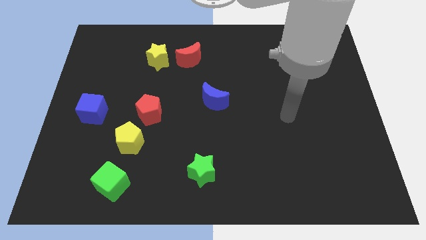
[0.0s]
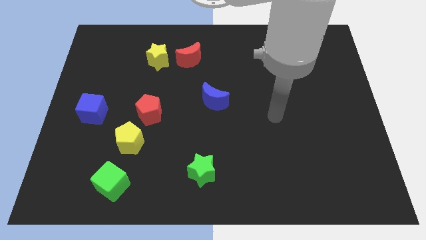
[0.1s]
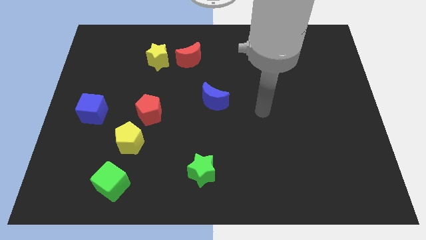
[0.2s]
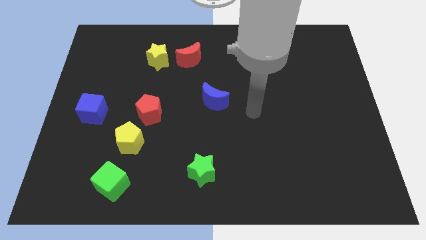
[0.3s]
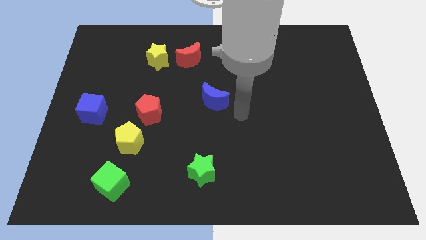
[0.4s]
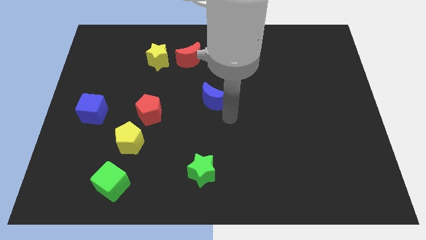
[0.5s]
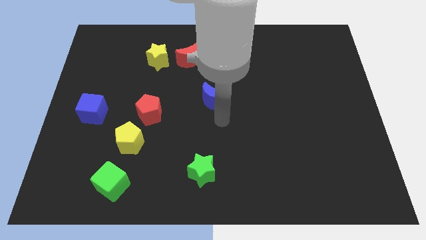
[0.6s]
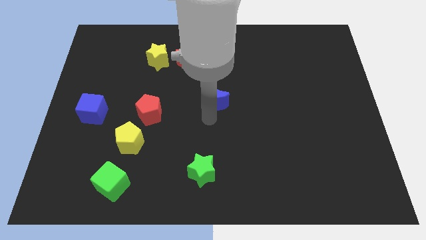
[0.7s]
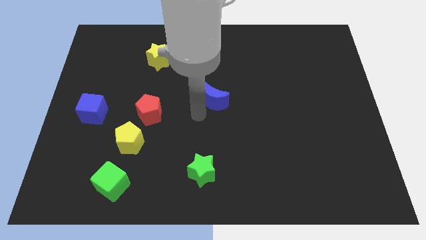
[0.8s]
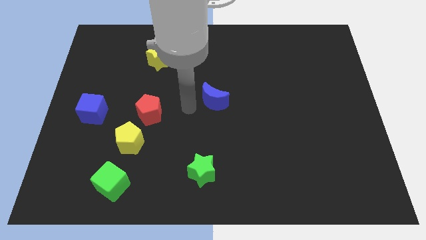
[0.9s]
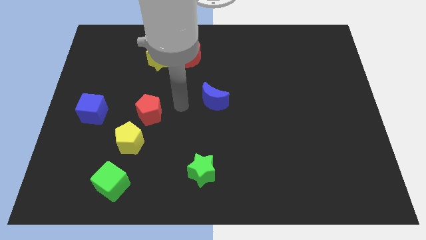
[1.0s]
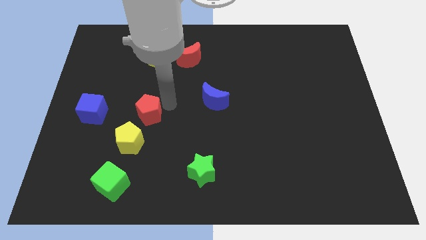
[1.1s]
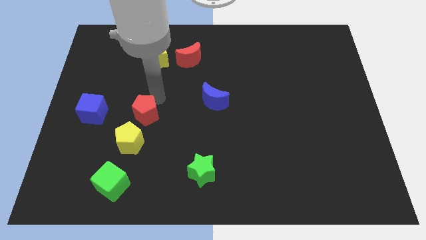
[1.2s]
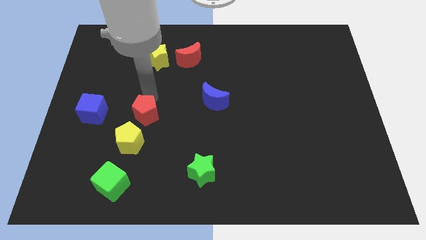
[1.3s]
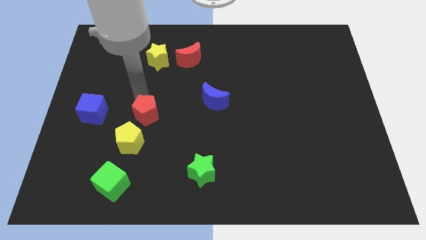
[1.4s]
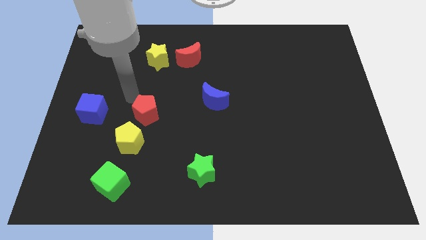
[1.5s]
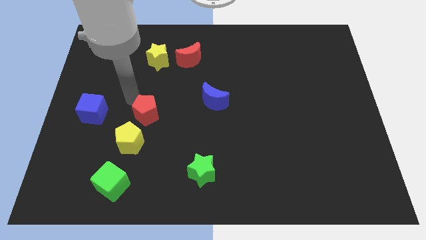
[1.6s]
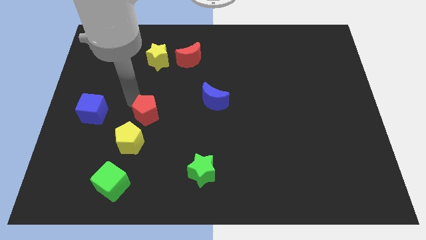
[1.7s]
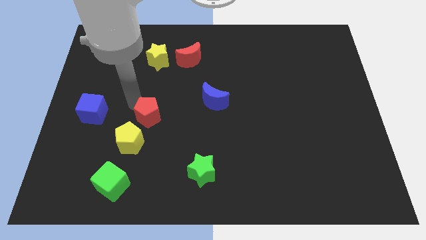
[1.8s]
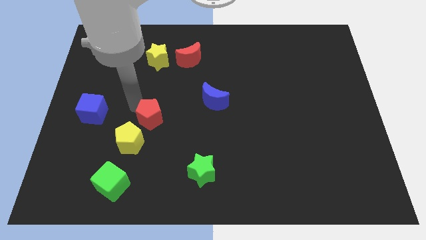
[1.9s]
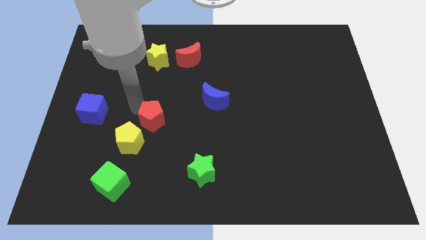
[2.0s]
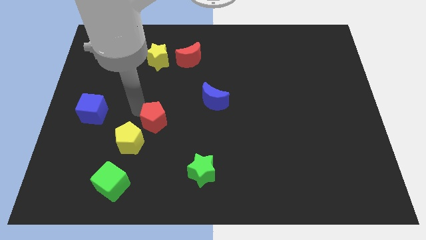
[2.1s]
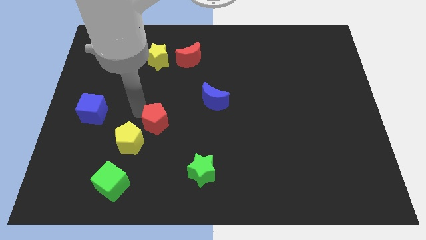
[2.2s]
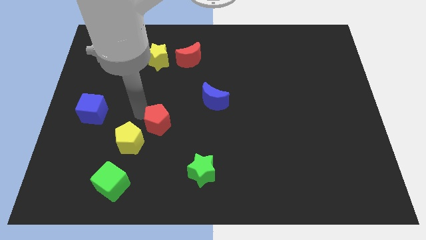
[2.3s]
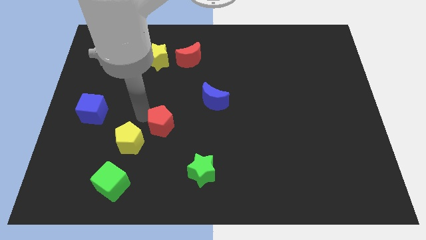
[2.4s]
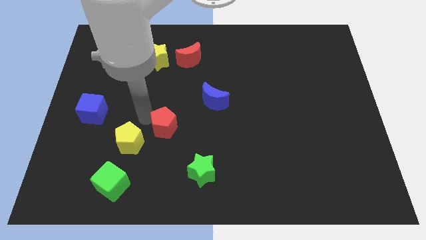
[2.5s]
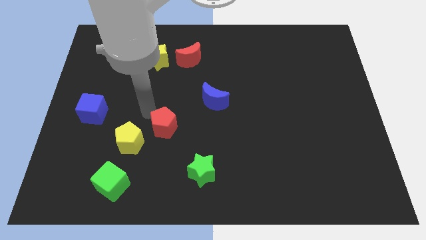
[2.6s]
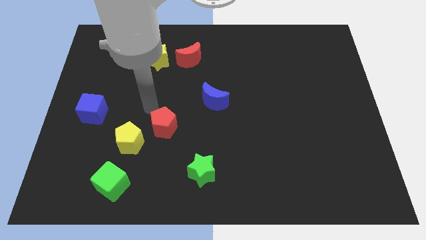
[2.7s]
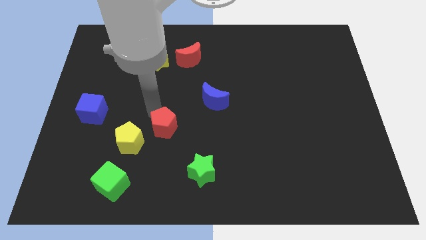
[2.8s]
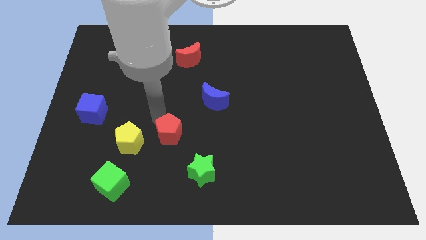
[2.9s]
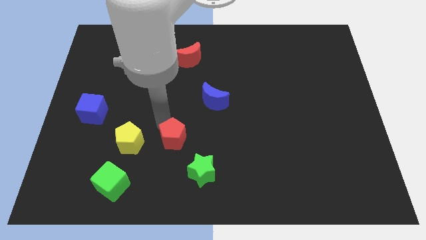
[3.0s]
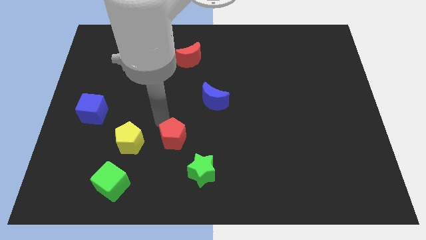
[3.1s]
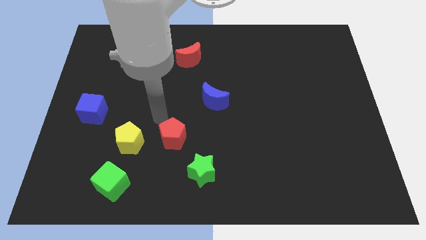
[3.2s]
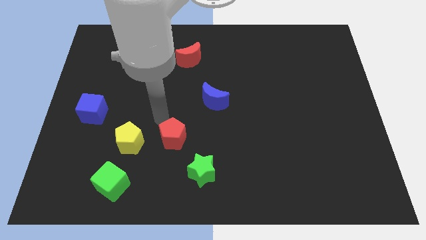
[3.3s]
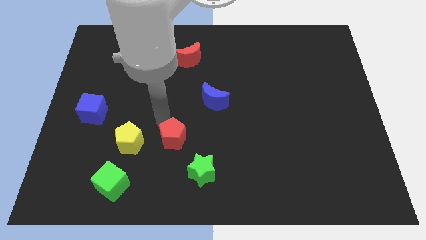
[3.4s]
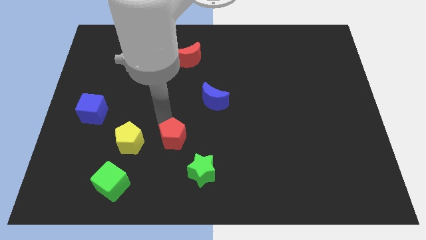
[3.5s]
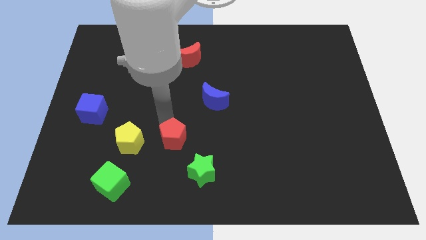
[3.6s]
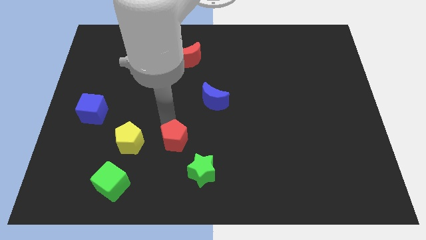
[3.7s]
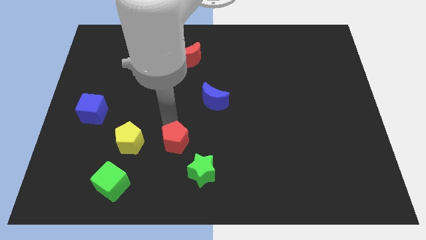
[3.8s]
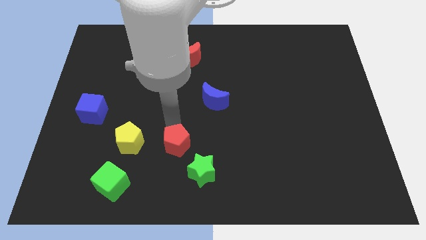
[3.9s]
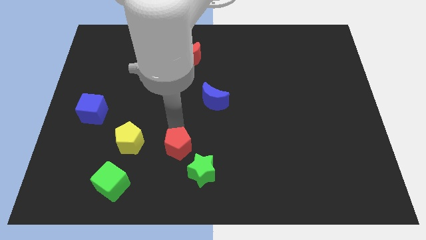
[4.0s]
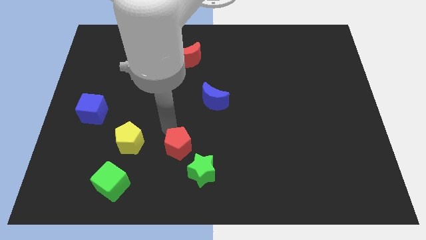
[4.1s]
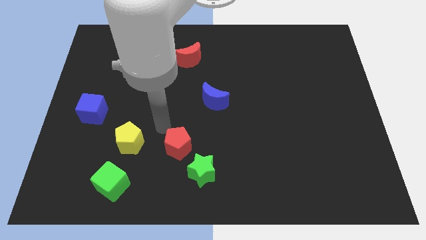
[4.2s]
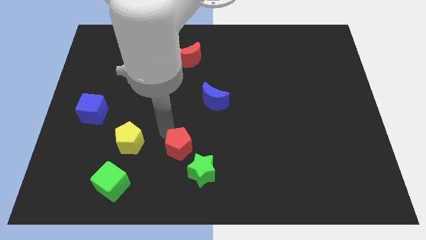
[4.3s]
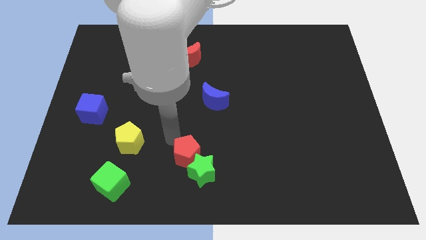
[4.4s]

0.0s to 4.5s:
slide the red pentagon next to the green star

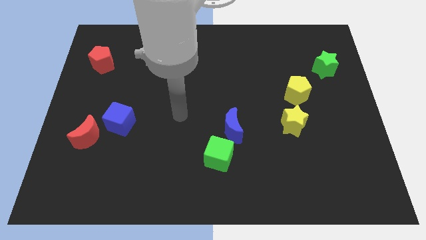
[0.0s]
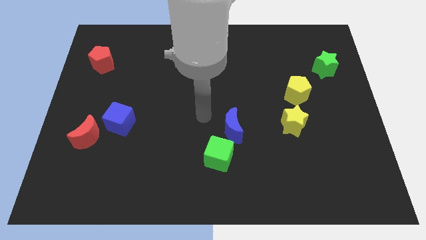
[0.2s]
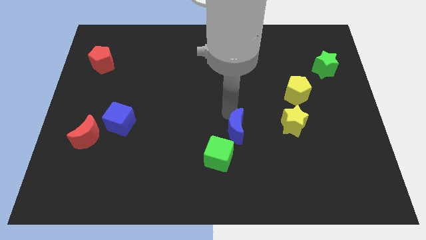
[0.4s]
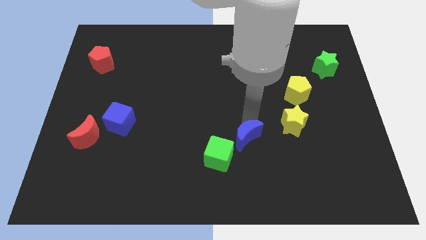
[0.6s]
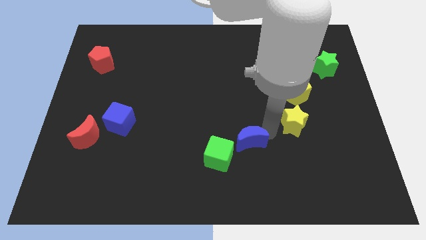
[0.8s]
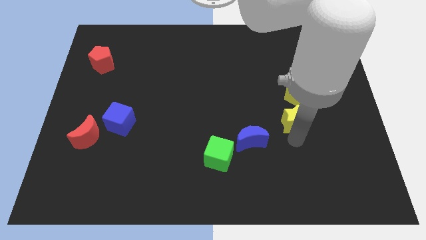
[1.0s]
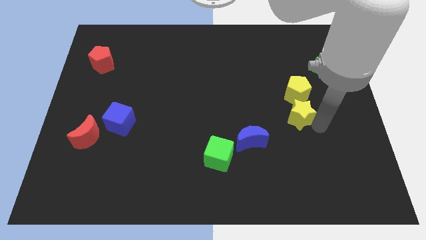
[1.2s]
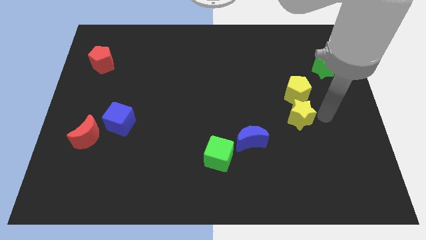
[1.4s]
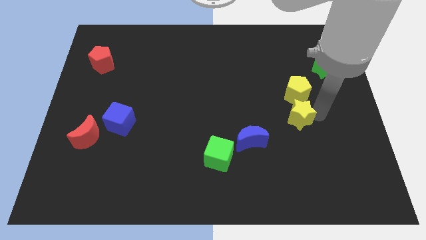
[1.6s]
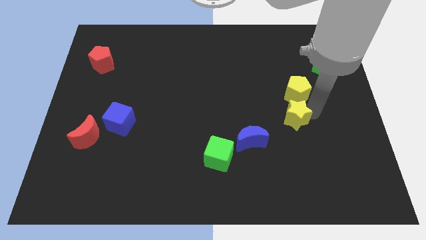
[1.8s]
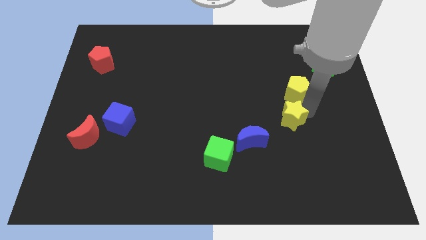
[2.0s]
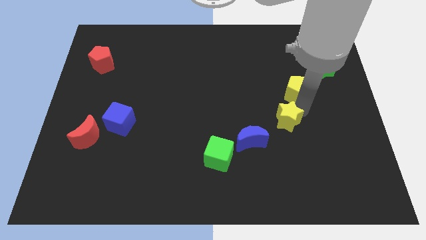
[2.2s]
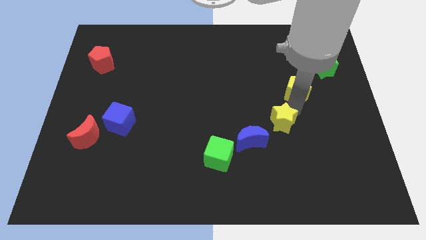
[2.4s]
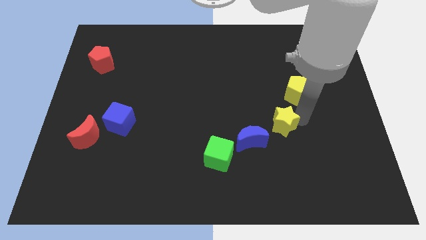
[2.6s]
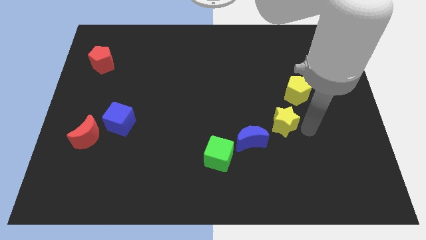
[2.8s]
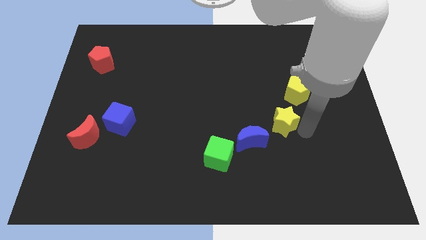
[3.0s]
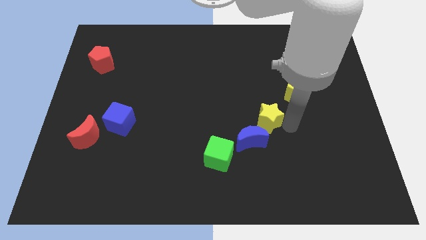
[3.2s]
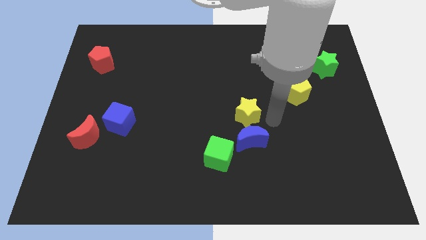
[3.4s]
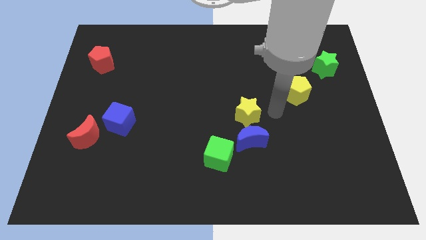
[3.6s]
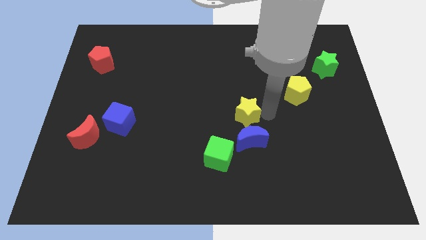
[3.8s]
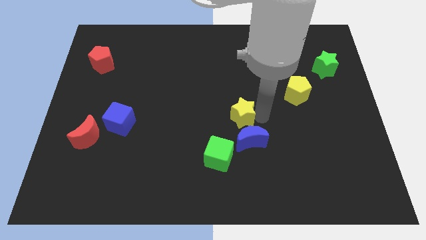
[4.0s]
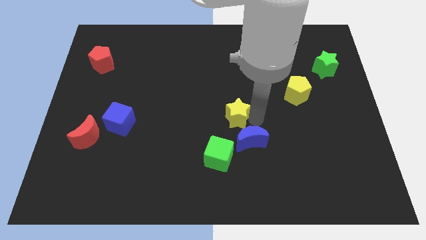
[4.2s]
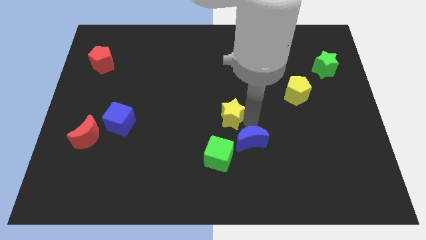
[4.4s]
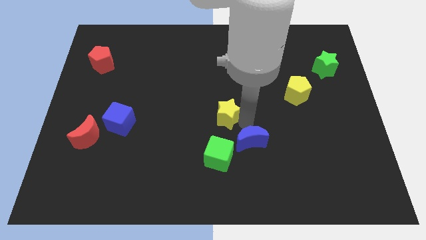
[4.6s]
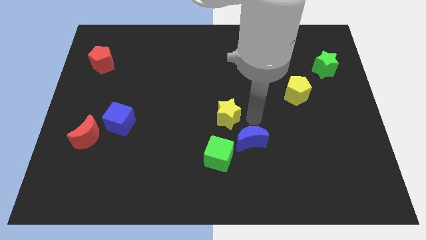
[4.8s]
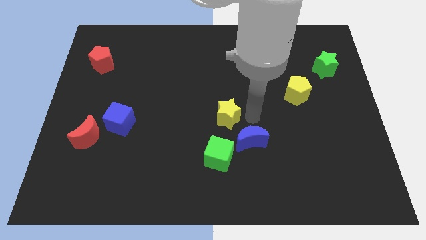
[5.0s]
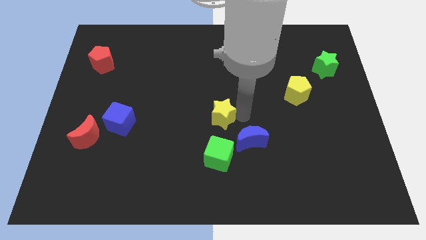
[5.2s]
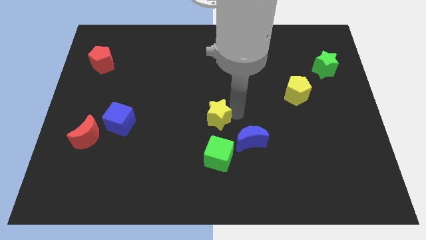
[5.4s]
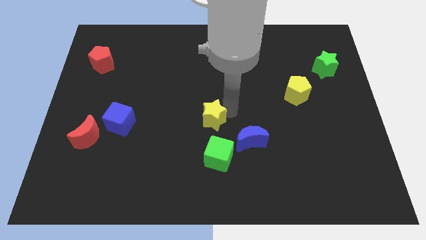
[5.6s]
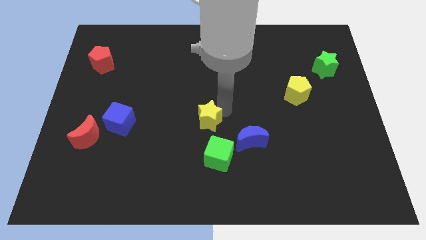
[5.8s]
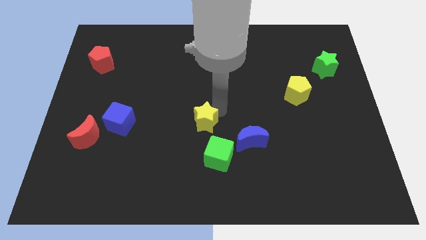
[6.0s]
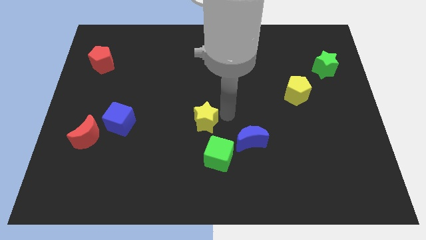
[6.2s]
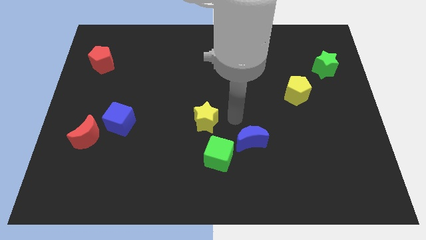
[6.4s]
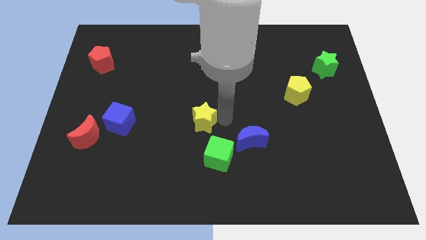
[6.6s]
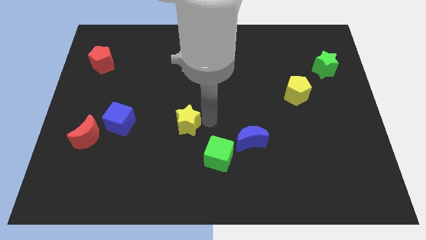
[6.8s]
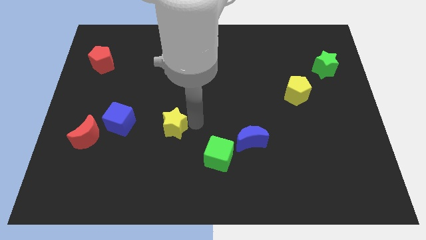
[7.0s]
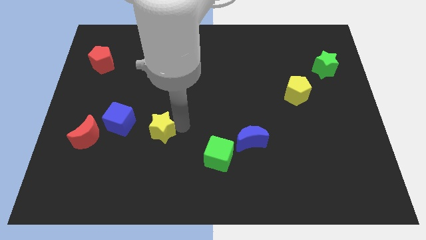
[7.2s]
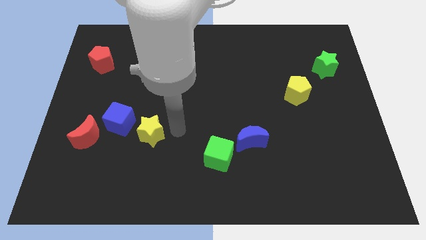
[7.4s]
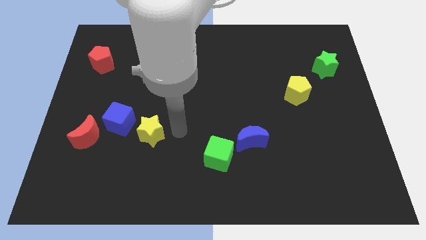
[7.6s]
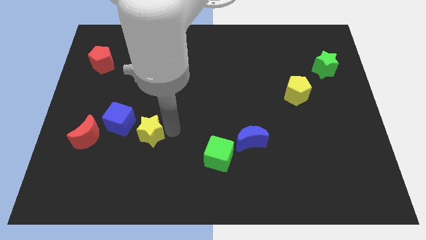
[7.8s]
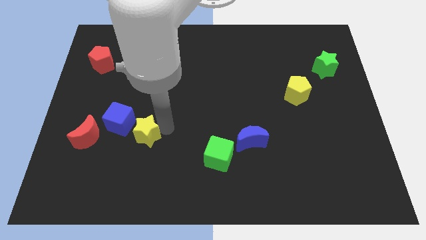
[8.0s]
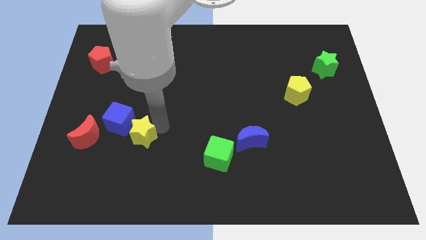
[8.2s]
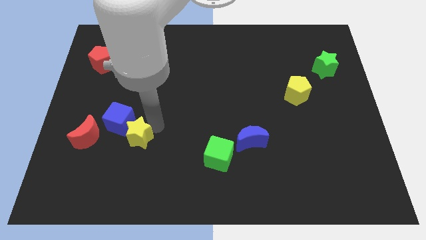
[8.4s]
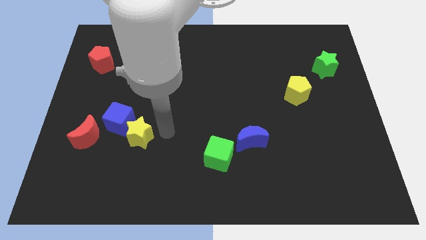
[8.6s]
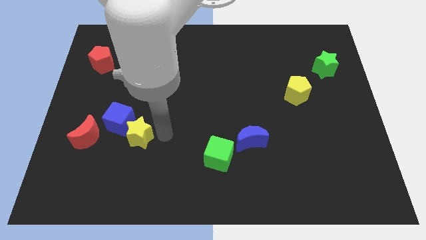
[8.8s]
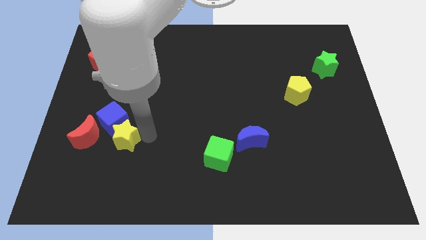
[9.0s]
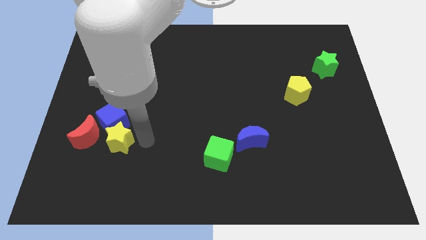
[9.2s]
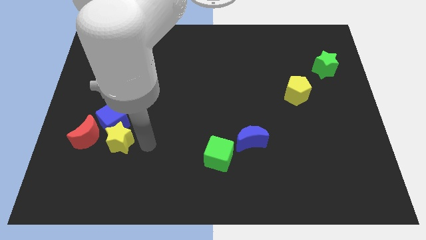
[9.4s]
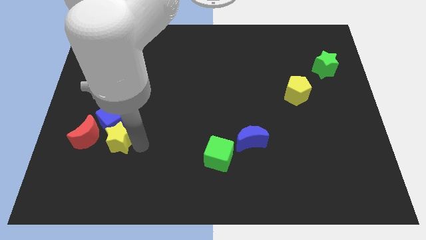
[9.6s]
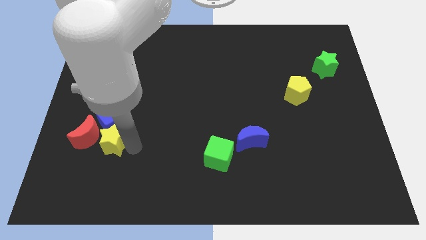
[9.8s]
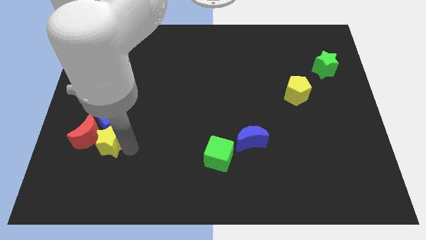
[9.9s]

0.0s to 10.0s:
move the yellow star towards the red moon
